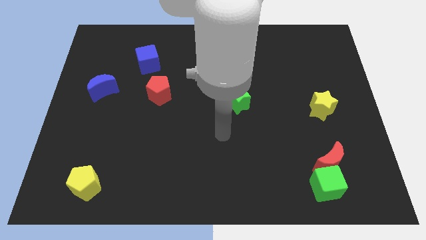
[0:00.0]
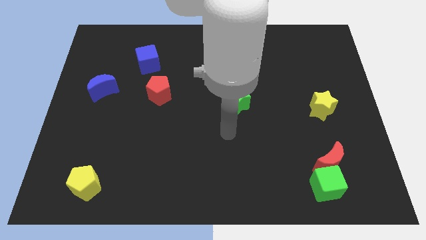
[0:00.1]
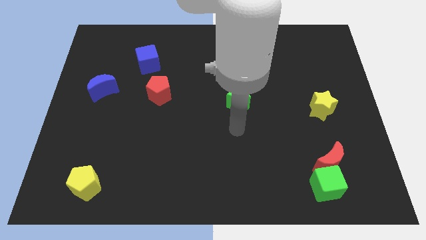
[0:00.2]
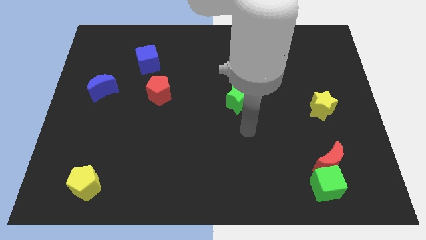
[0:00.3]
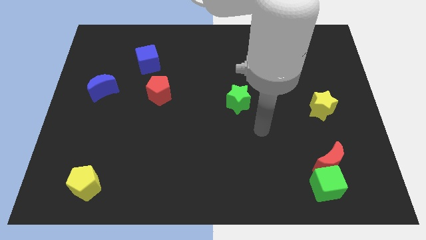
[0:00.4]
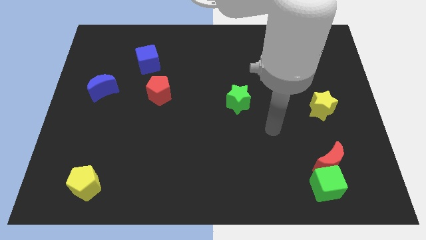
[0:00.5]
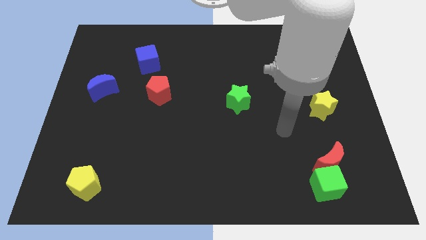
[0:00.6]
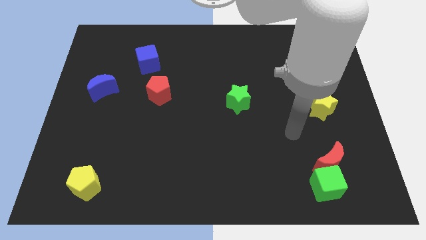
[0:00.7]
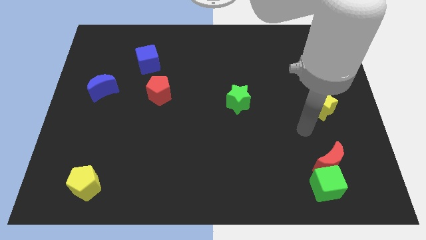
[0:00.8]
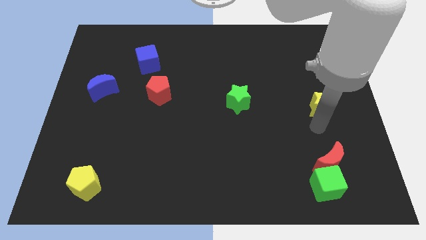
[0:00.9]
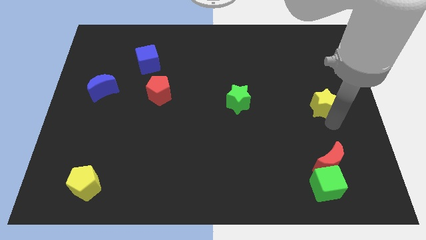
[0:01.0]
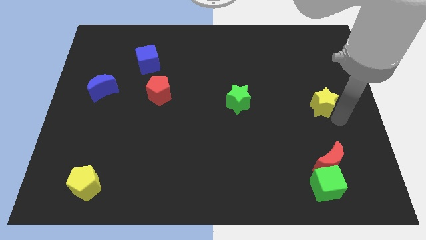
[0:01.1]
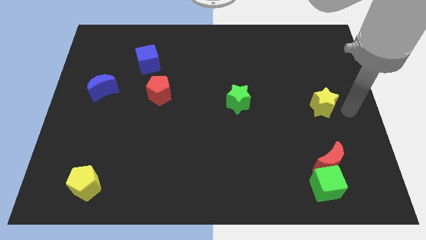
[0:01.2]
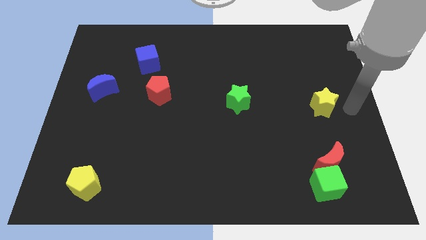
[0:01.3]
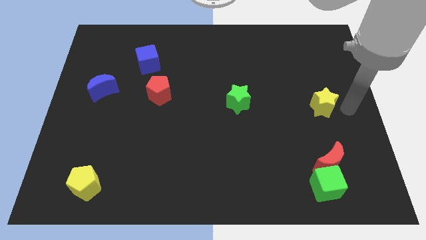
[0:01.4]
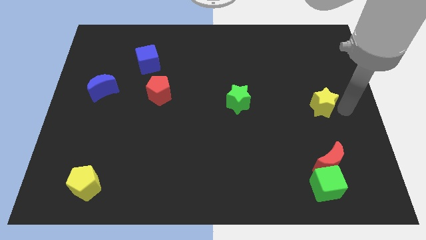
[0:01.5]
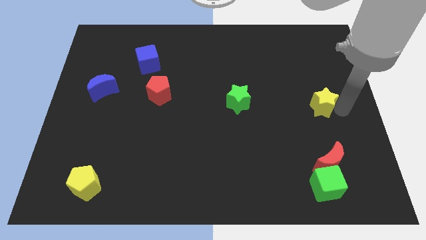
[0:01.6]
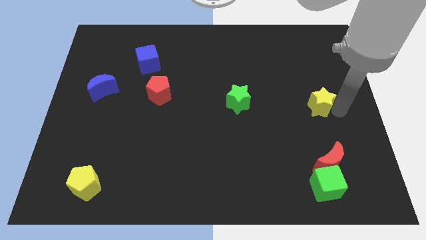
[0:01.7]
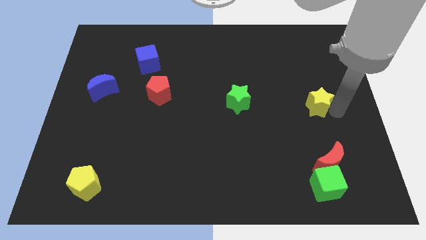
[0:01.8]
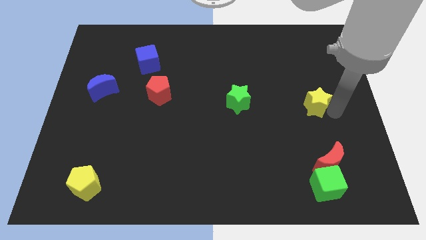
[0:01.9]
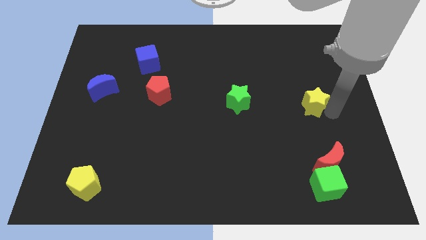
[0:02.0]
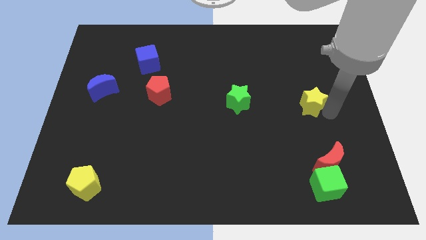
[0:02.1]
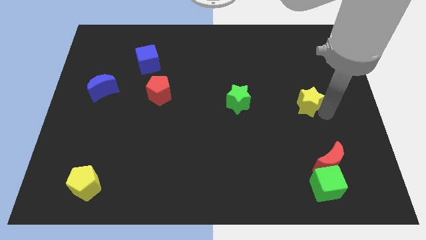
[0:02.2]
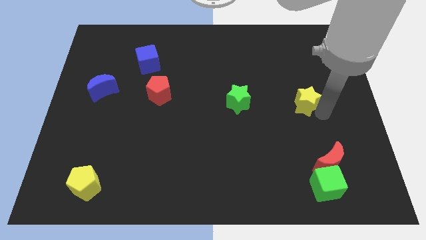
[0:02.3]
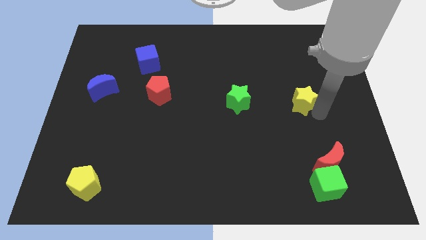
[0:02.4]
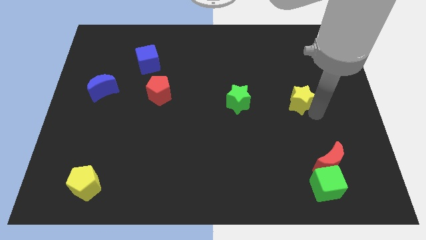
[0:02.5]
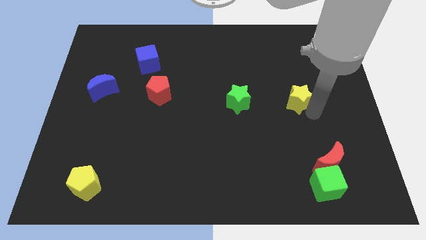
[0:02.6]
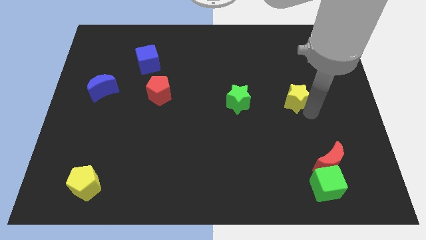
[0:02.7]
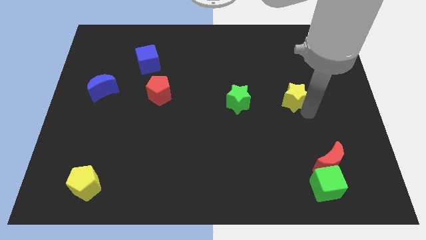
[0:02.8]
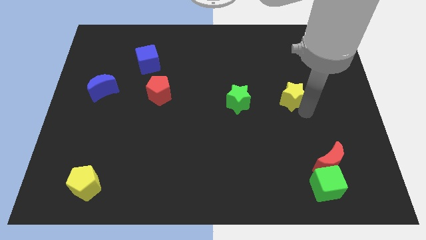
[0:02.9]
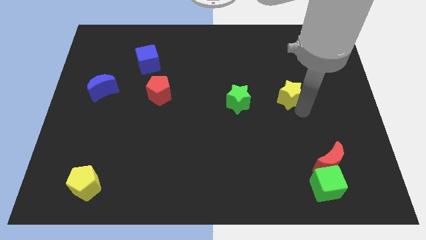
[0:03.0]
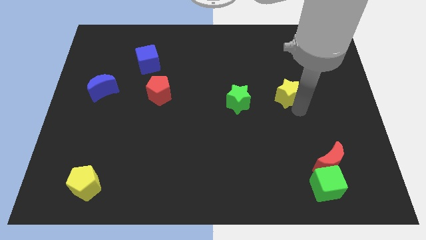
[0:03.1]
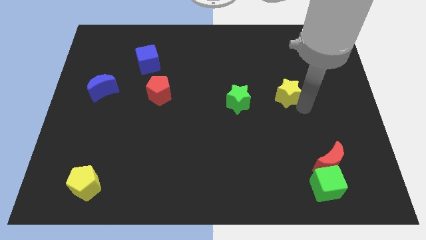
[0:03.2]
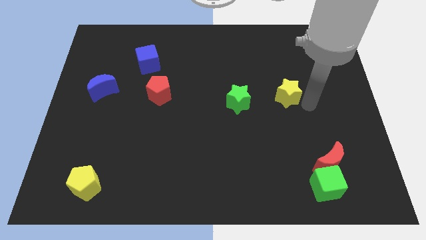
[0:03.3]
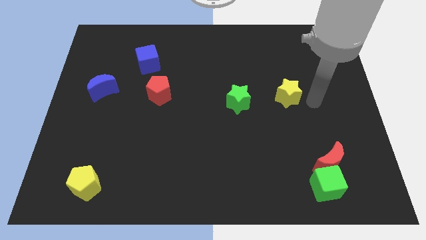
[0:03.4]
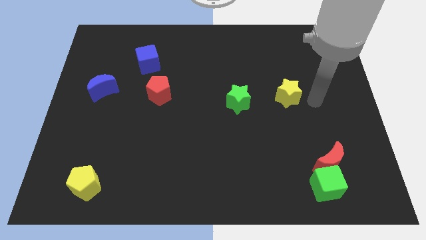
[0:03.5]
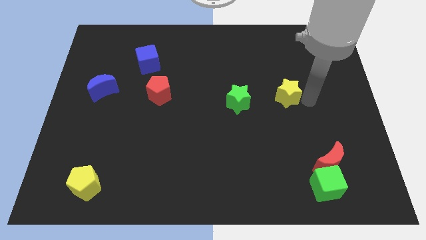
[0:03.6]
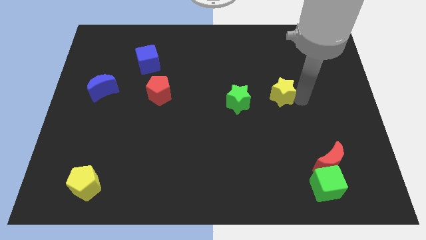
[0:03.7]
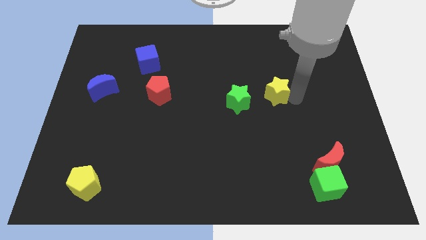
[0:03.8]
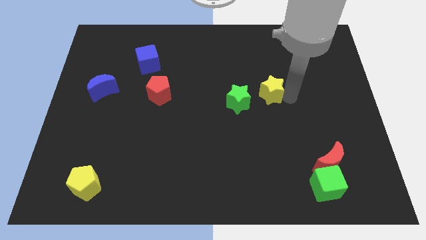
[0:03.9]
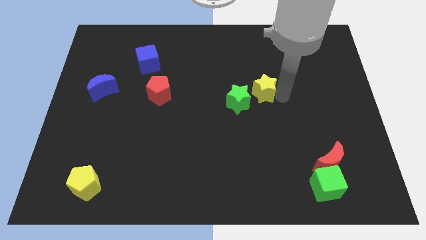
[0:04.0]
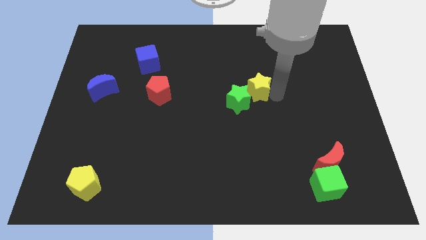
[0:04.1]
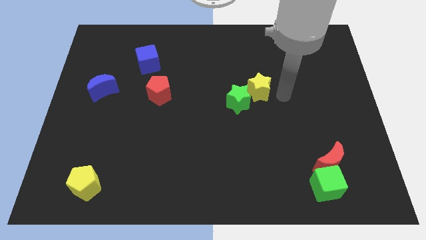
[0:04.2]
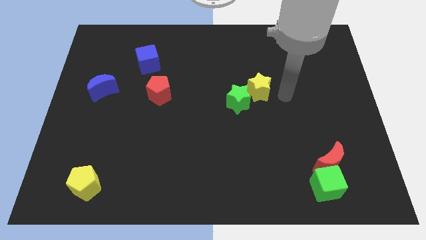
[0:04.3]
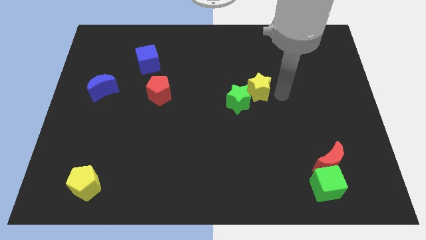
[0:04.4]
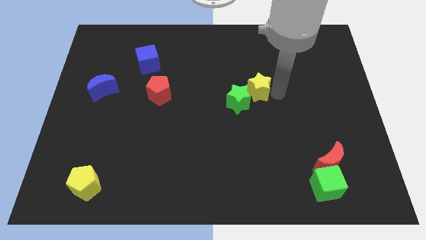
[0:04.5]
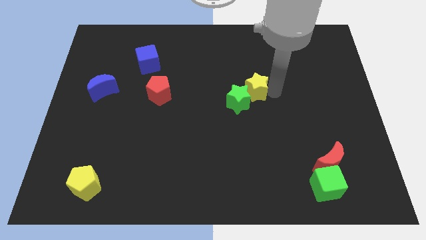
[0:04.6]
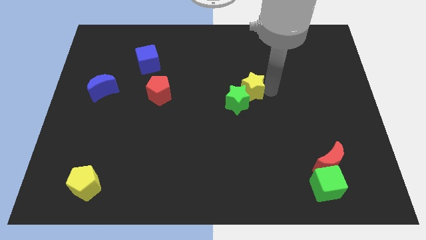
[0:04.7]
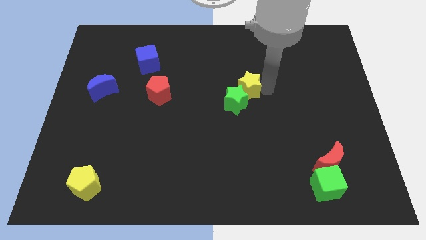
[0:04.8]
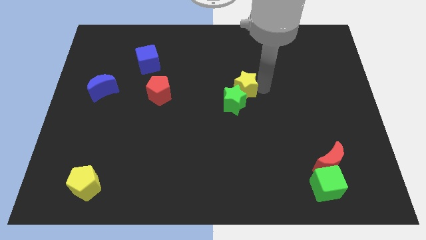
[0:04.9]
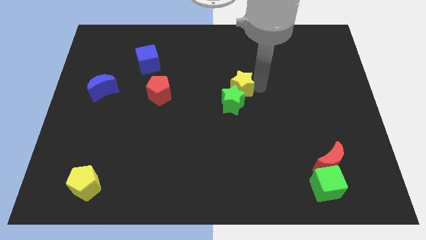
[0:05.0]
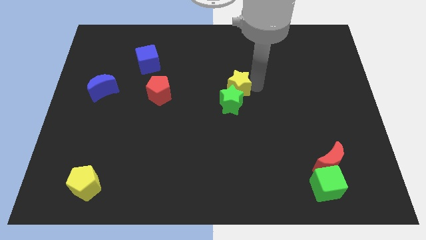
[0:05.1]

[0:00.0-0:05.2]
slide the yellow star diagonally up and to the left of the green star

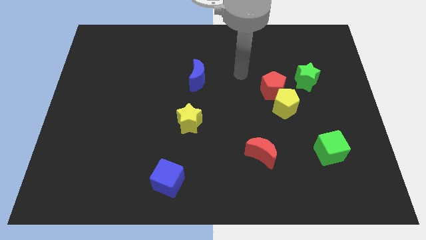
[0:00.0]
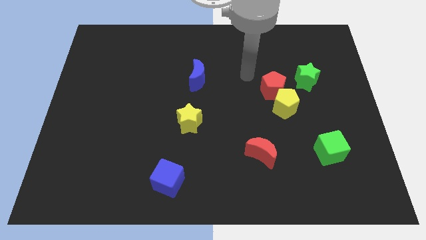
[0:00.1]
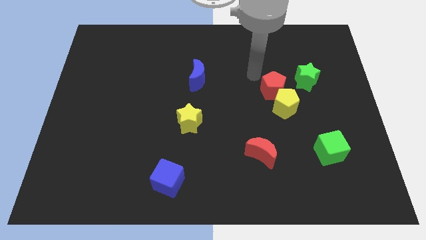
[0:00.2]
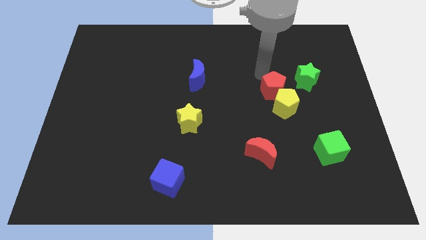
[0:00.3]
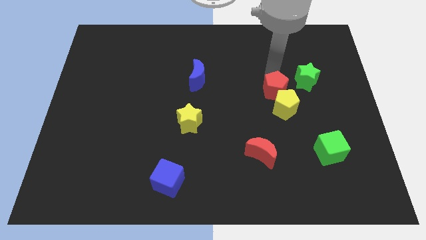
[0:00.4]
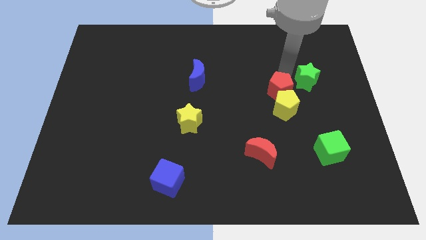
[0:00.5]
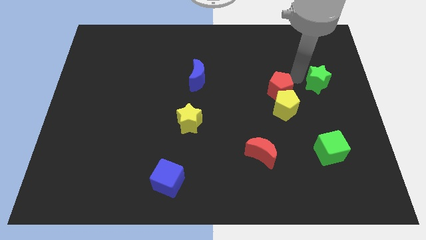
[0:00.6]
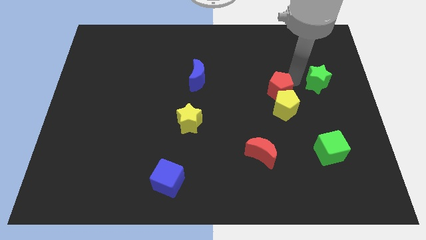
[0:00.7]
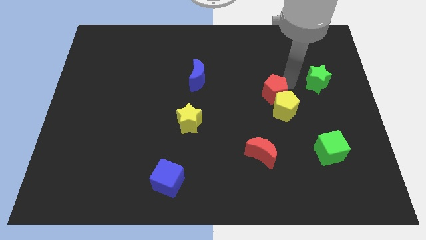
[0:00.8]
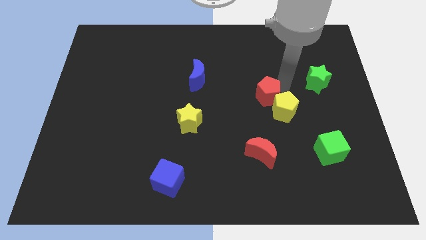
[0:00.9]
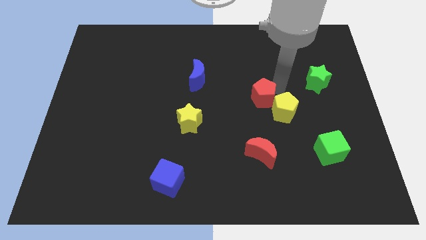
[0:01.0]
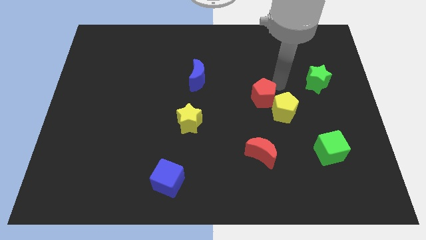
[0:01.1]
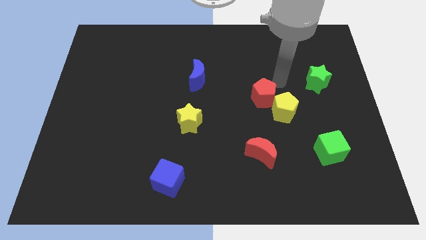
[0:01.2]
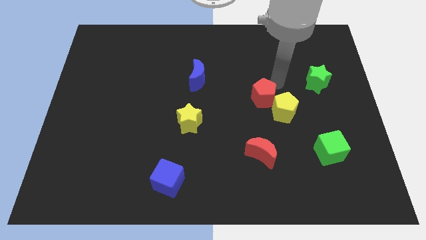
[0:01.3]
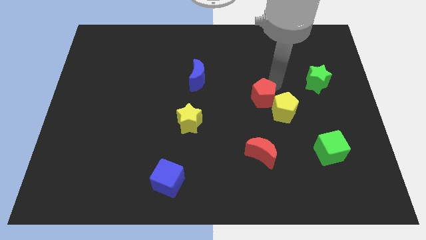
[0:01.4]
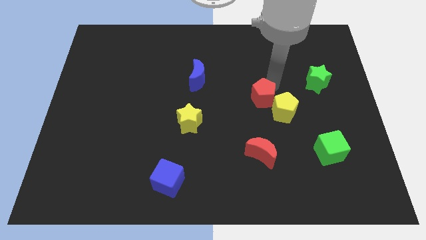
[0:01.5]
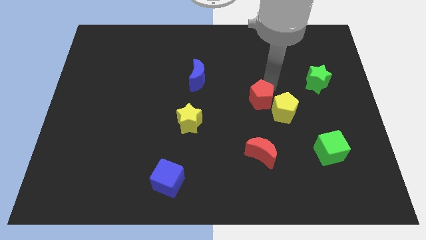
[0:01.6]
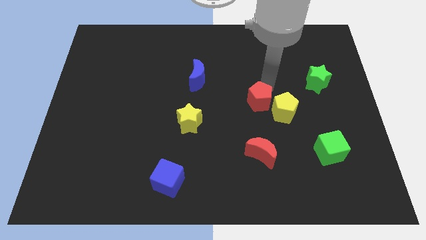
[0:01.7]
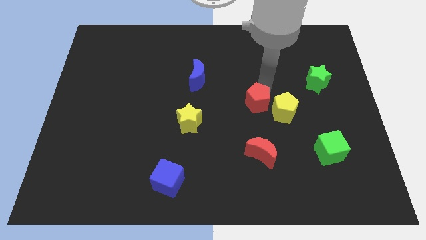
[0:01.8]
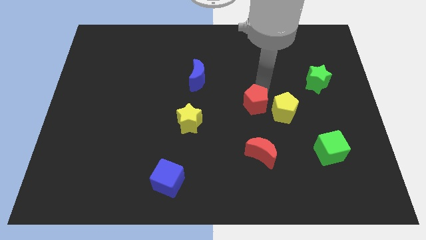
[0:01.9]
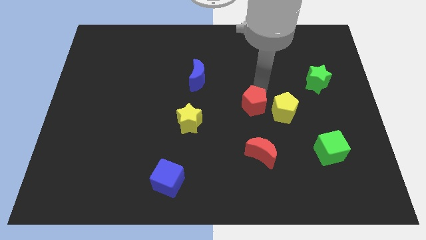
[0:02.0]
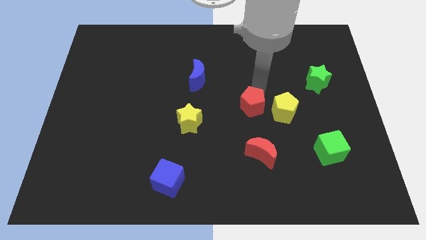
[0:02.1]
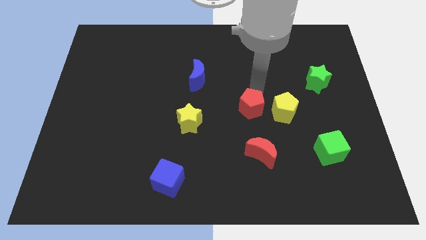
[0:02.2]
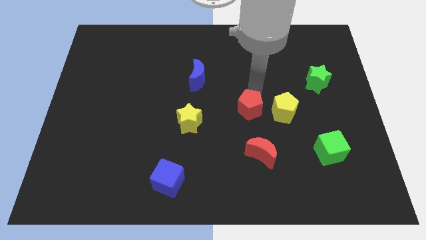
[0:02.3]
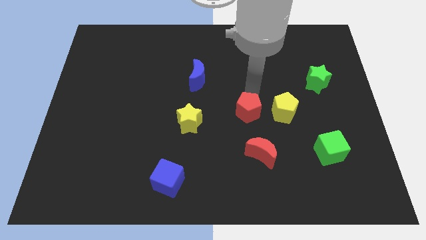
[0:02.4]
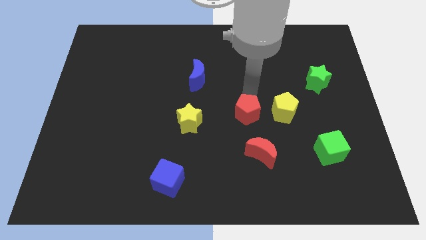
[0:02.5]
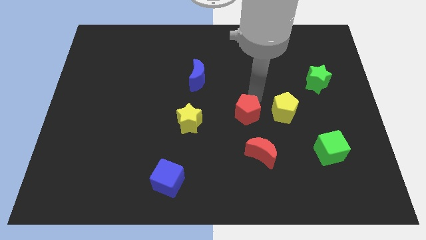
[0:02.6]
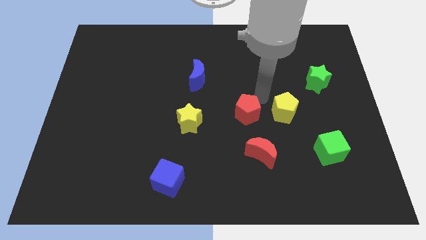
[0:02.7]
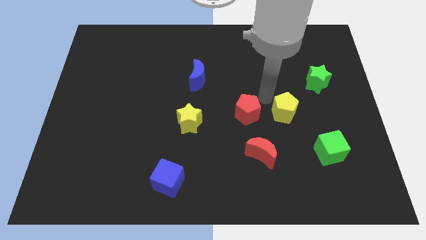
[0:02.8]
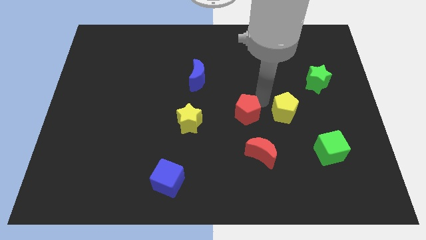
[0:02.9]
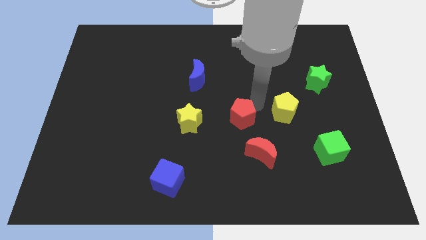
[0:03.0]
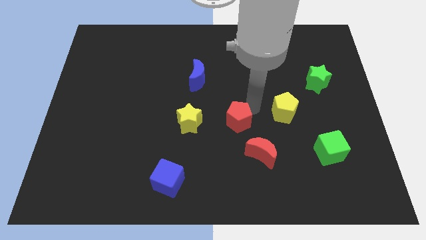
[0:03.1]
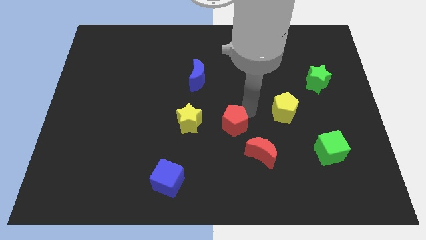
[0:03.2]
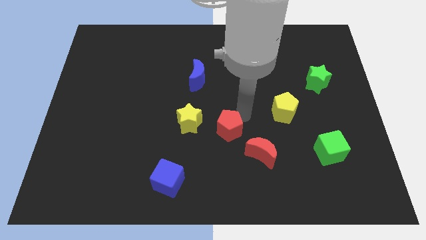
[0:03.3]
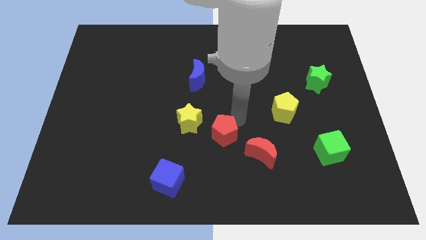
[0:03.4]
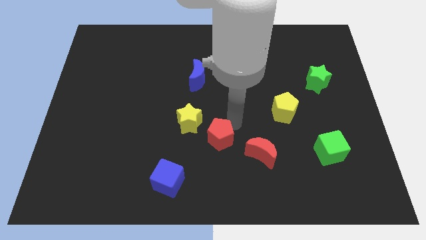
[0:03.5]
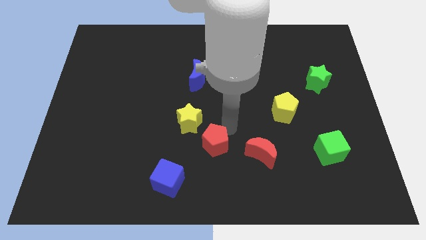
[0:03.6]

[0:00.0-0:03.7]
slide the red pentagon to the top right side of the blue cube
